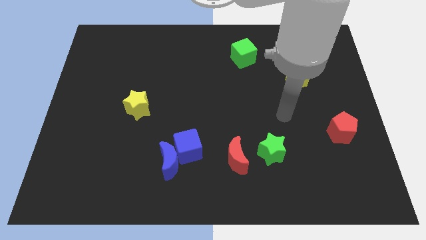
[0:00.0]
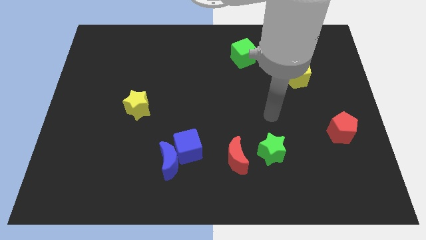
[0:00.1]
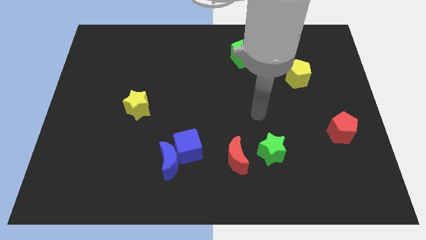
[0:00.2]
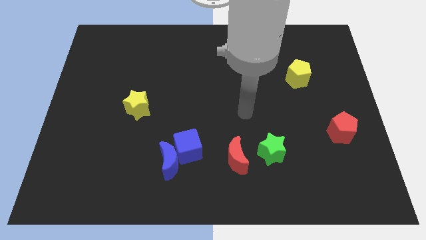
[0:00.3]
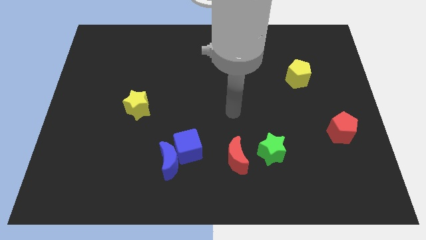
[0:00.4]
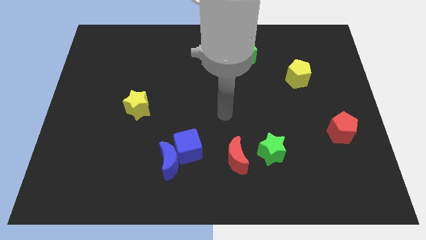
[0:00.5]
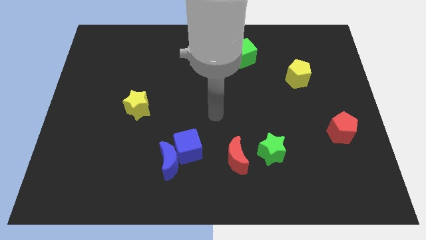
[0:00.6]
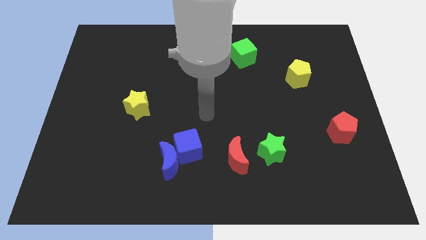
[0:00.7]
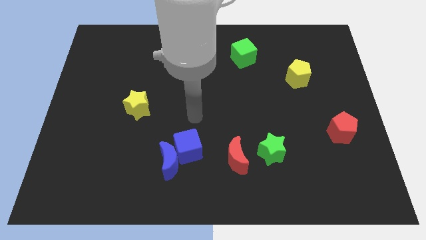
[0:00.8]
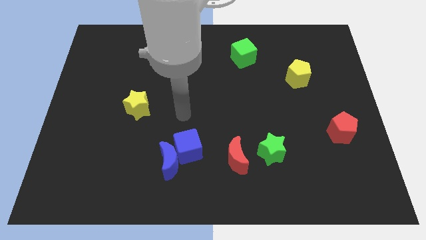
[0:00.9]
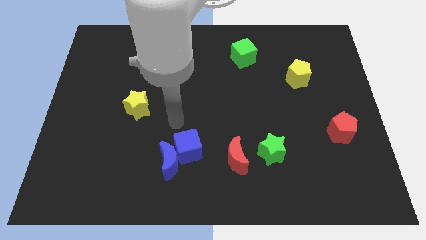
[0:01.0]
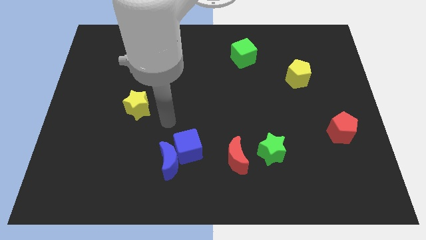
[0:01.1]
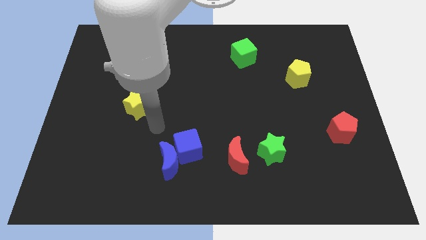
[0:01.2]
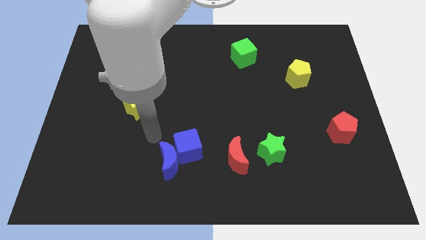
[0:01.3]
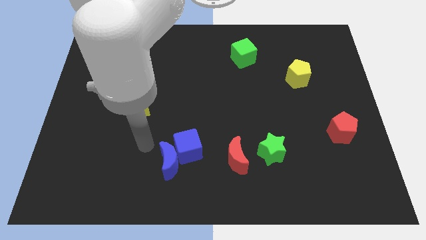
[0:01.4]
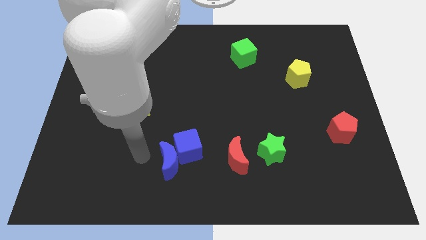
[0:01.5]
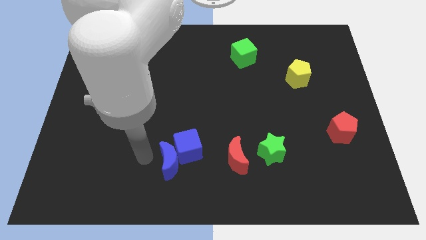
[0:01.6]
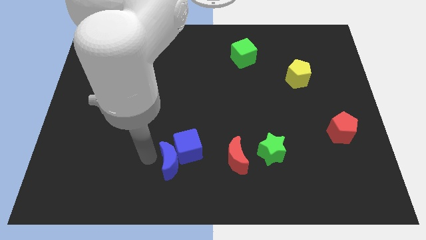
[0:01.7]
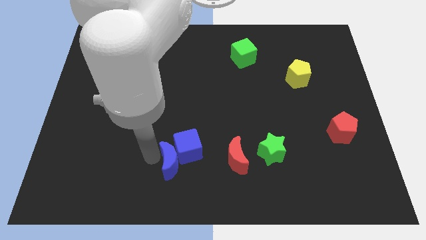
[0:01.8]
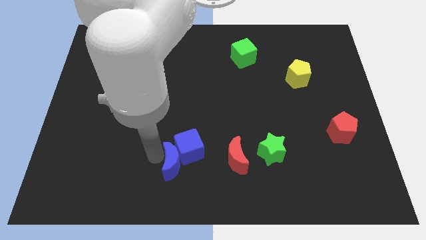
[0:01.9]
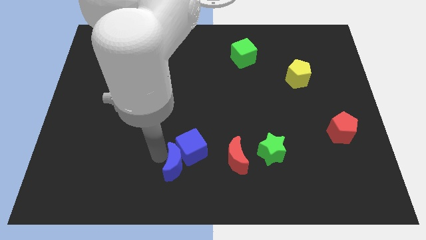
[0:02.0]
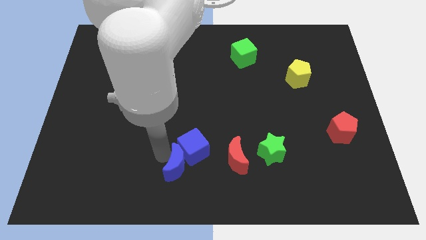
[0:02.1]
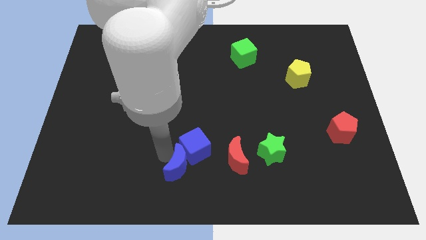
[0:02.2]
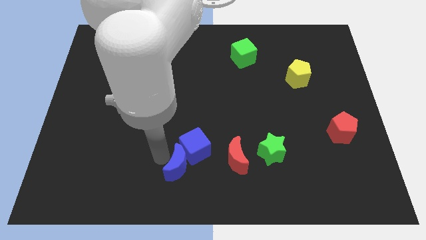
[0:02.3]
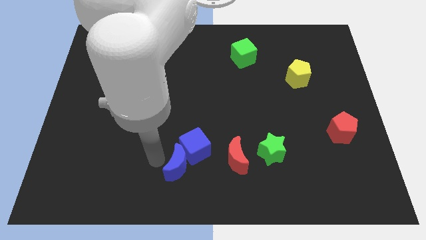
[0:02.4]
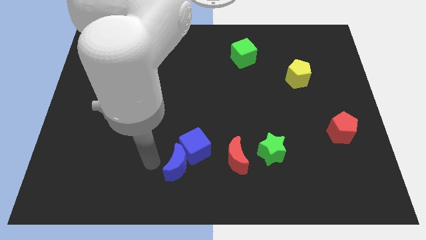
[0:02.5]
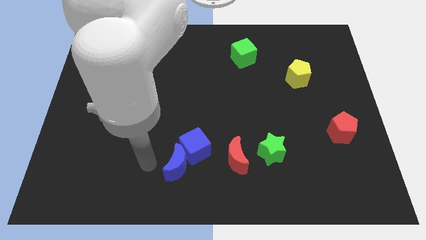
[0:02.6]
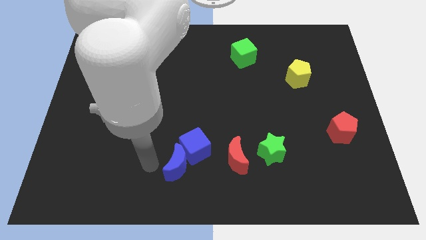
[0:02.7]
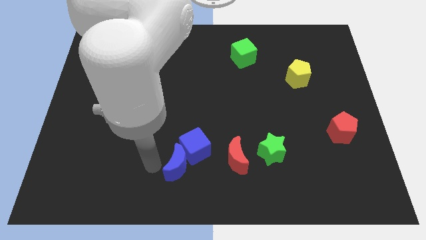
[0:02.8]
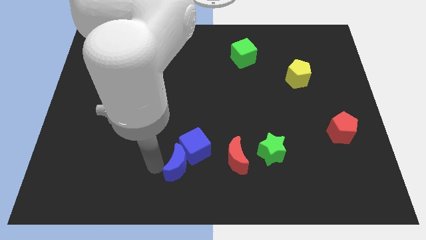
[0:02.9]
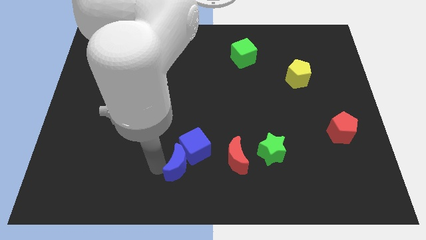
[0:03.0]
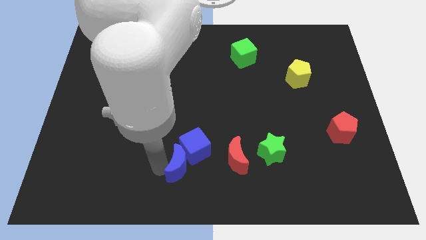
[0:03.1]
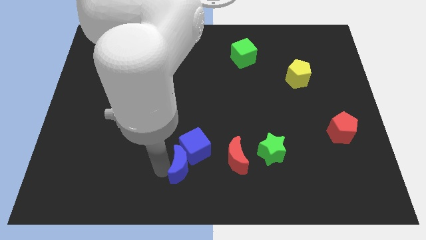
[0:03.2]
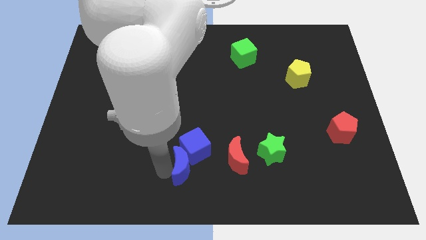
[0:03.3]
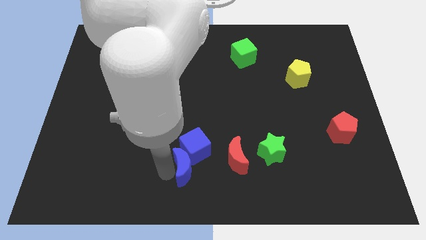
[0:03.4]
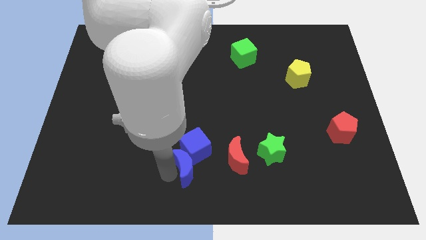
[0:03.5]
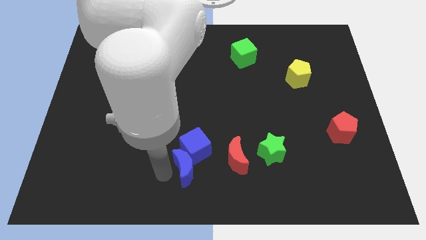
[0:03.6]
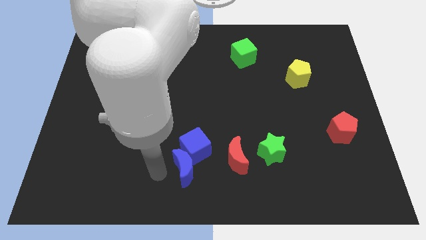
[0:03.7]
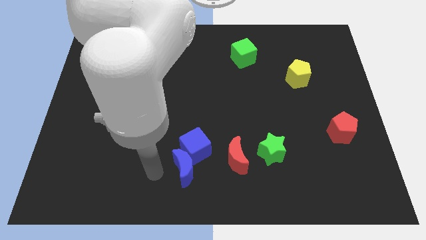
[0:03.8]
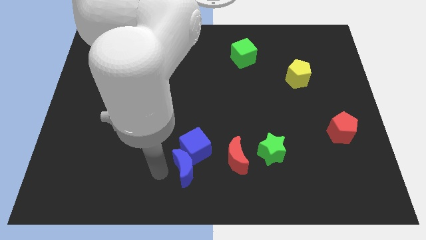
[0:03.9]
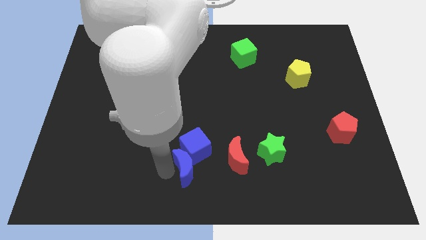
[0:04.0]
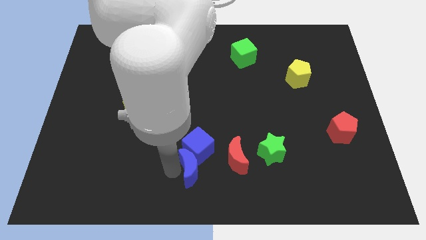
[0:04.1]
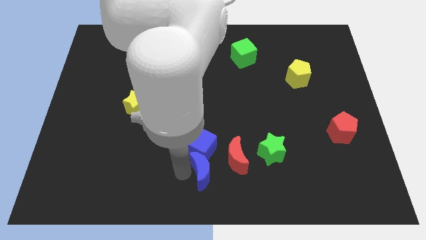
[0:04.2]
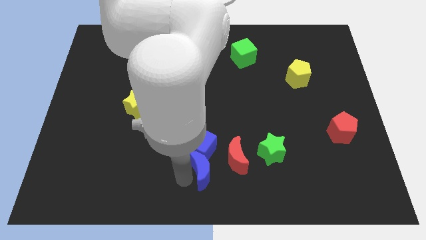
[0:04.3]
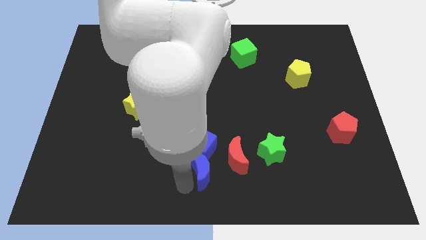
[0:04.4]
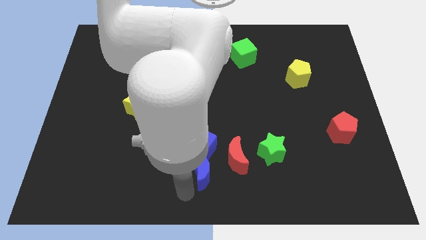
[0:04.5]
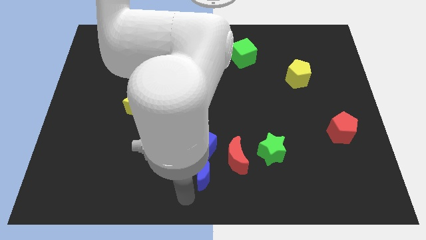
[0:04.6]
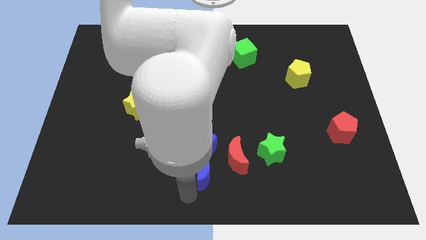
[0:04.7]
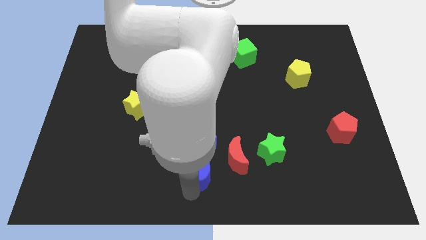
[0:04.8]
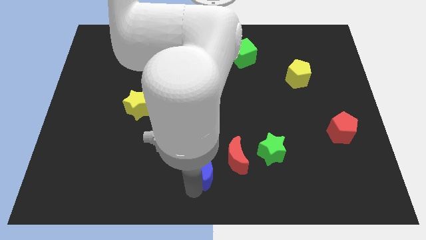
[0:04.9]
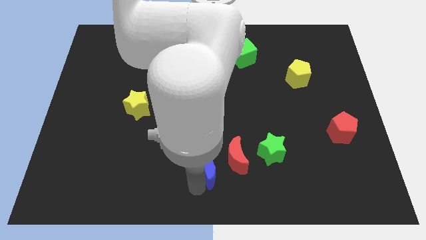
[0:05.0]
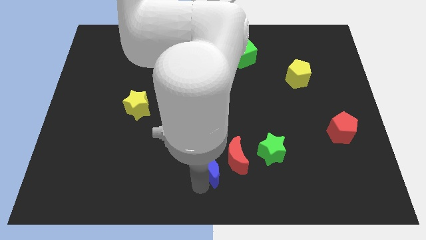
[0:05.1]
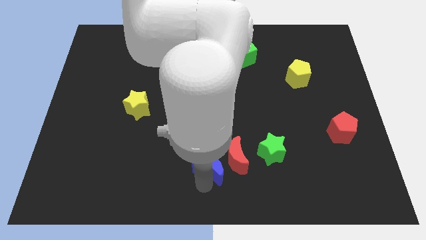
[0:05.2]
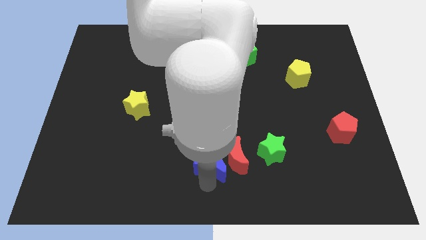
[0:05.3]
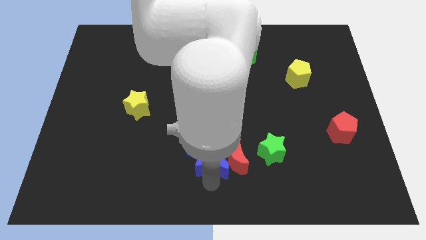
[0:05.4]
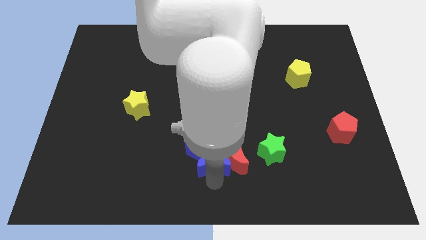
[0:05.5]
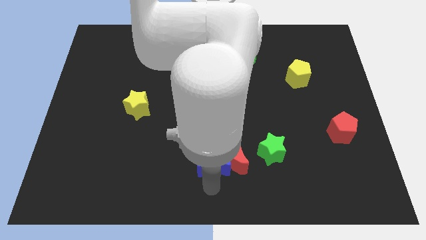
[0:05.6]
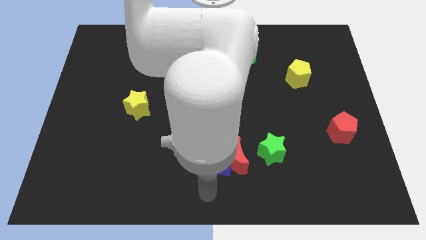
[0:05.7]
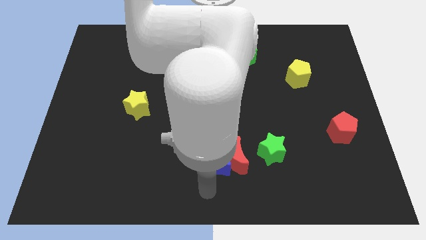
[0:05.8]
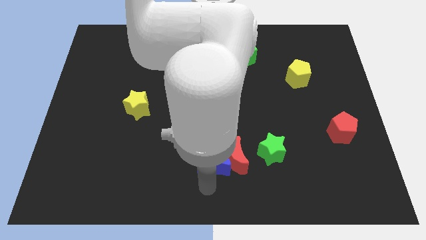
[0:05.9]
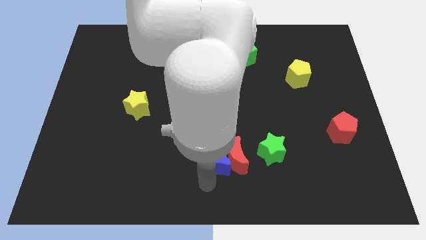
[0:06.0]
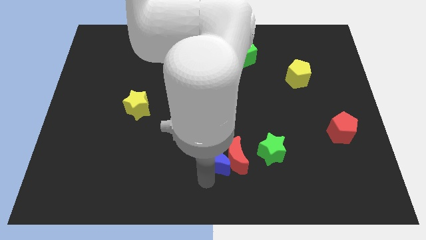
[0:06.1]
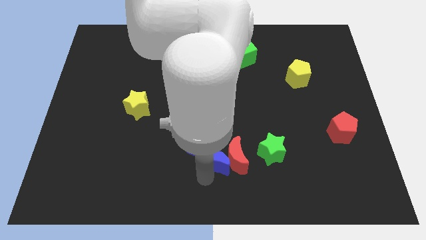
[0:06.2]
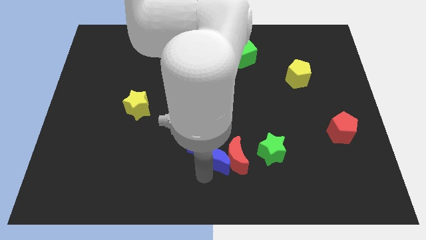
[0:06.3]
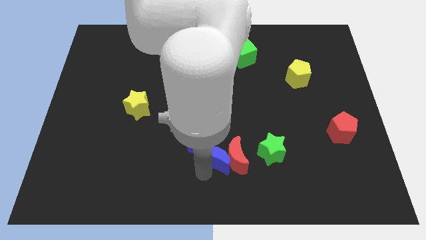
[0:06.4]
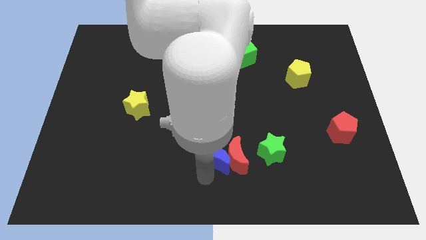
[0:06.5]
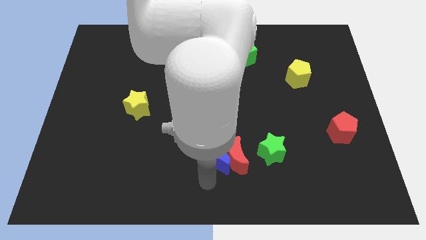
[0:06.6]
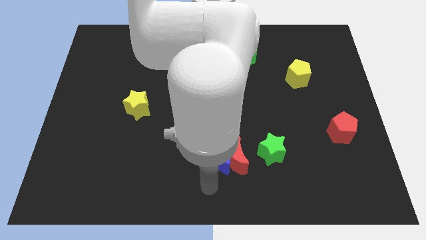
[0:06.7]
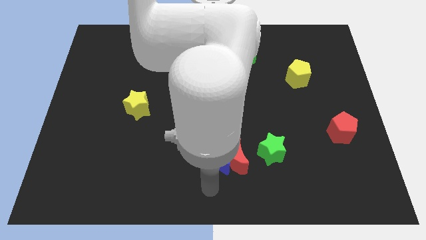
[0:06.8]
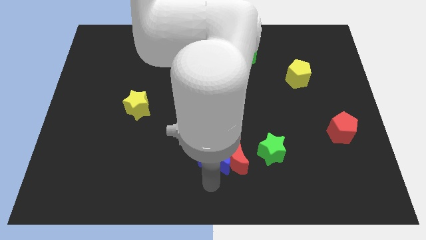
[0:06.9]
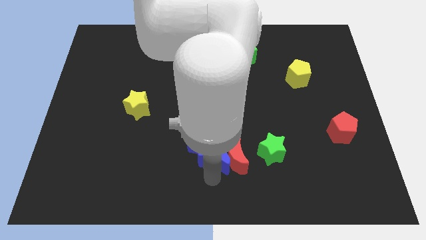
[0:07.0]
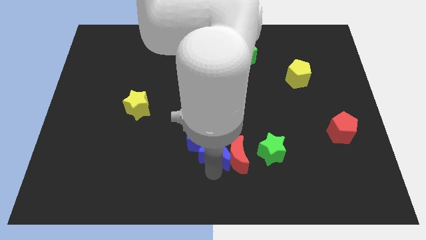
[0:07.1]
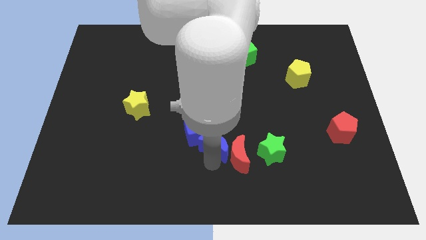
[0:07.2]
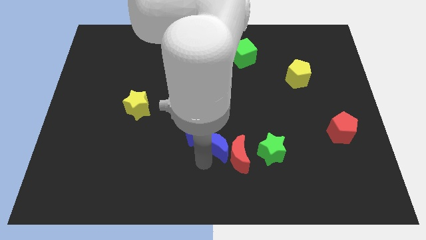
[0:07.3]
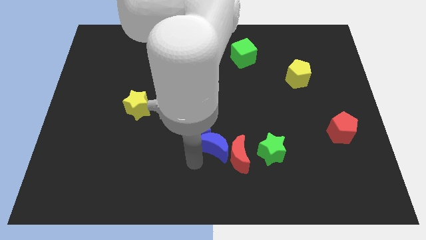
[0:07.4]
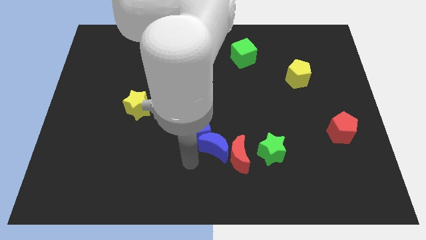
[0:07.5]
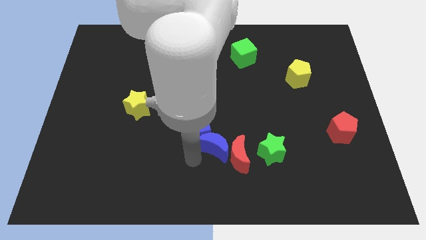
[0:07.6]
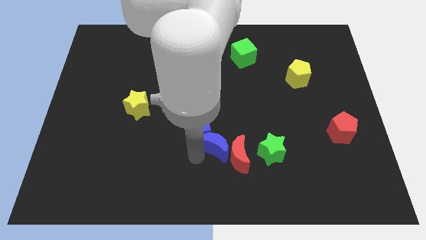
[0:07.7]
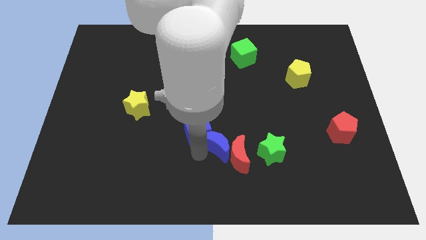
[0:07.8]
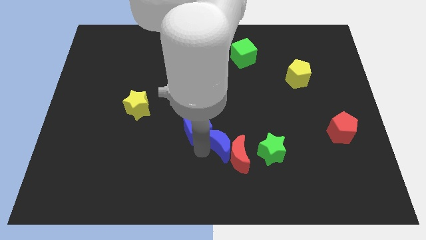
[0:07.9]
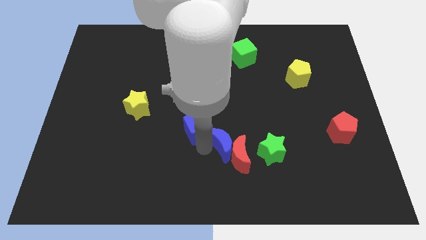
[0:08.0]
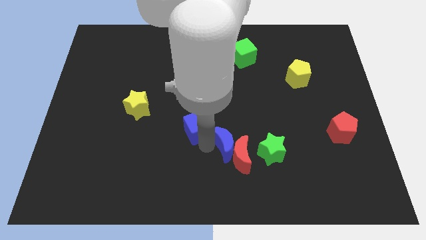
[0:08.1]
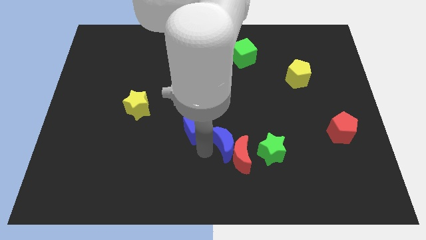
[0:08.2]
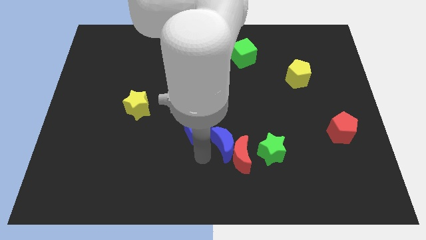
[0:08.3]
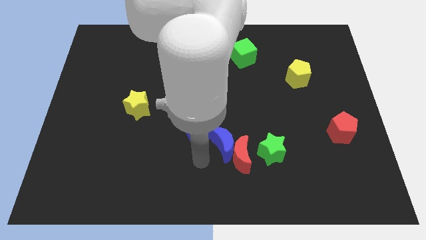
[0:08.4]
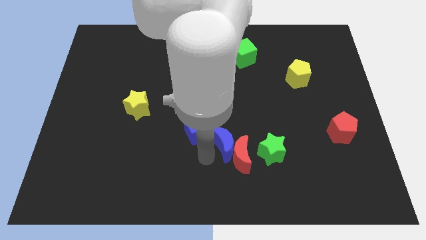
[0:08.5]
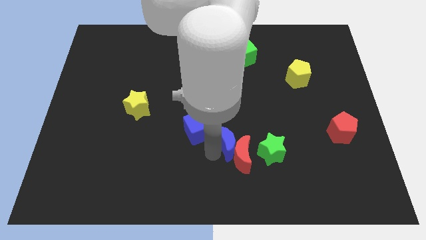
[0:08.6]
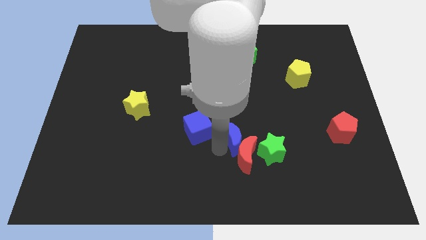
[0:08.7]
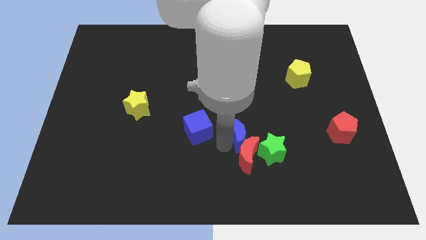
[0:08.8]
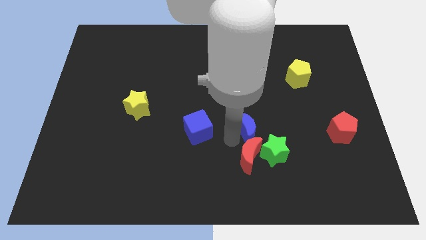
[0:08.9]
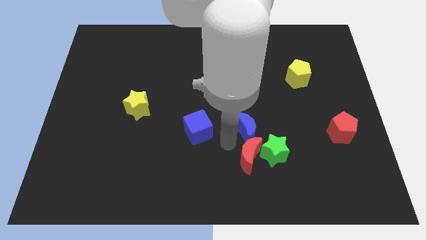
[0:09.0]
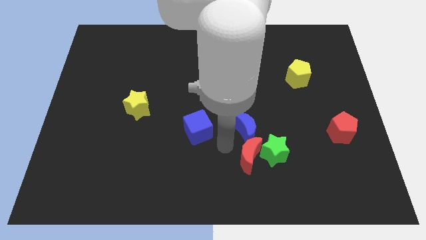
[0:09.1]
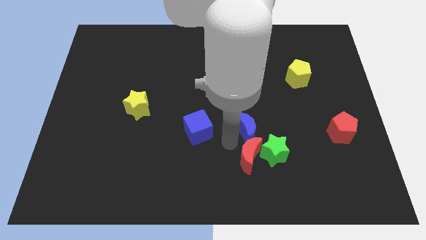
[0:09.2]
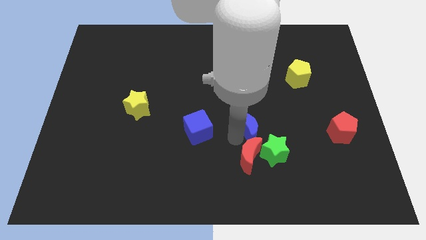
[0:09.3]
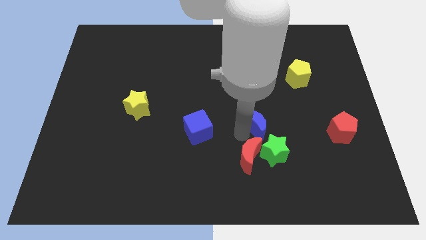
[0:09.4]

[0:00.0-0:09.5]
slide the blue moon to the top side of the green star
